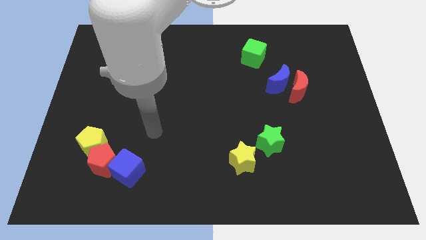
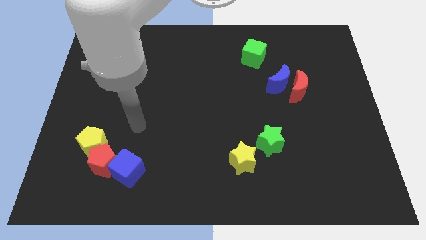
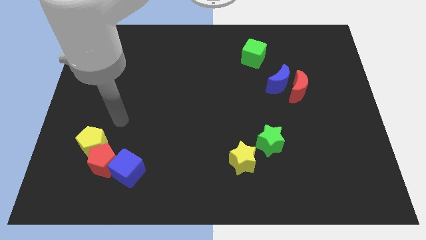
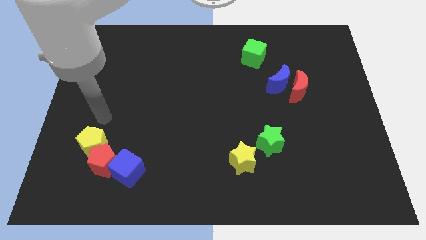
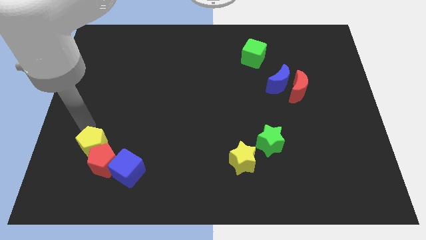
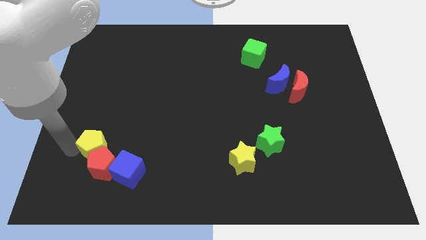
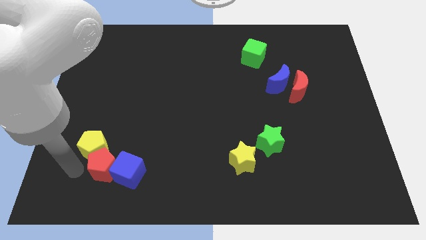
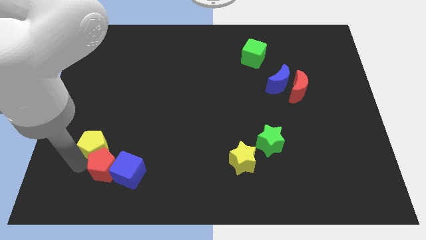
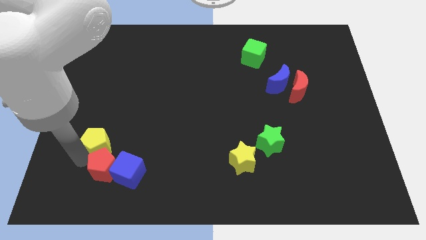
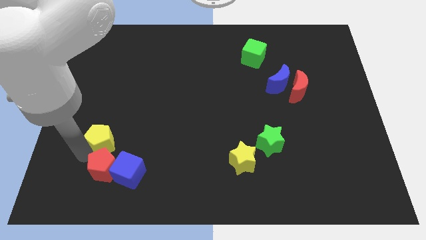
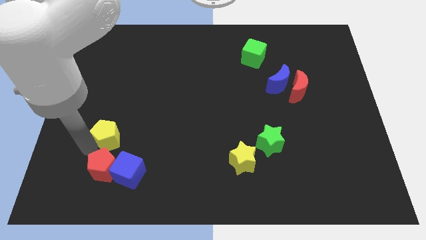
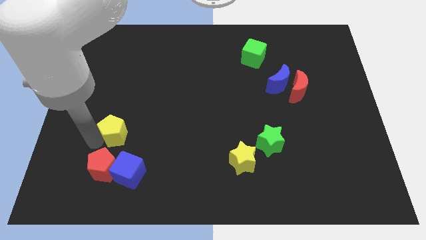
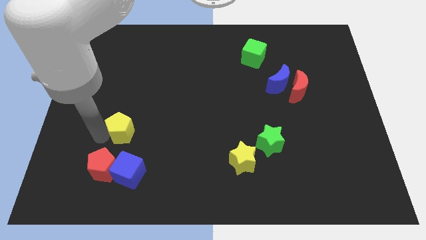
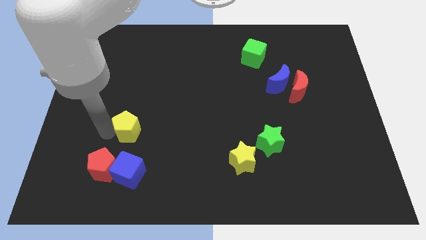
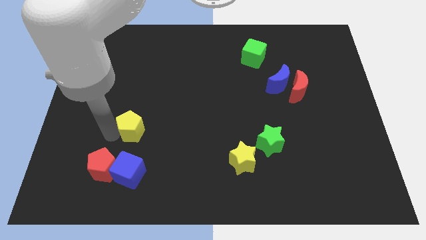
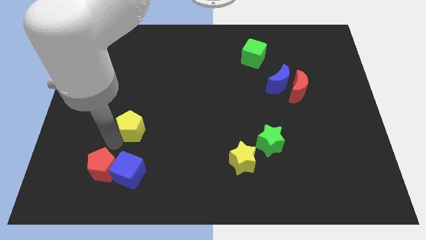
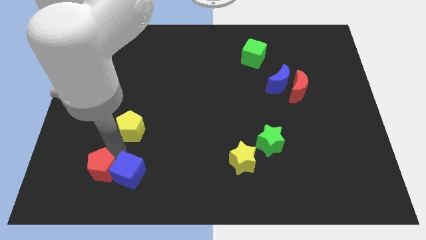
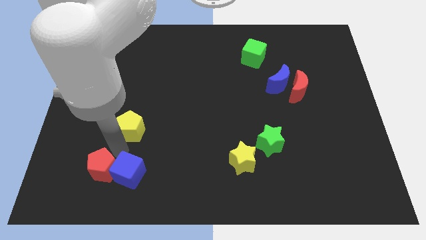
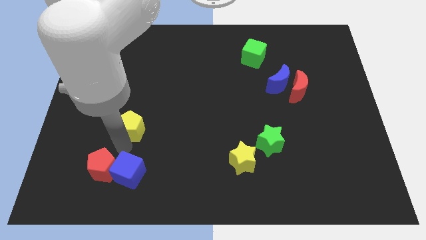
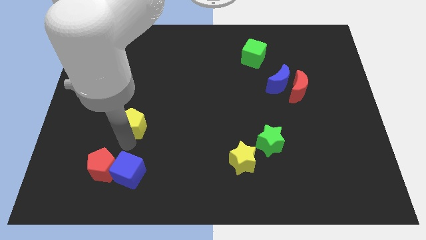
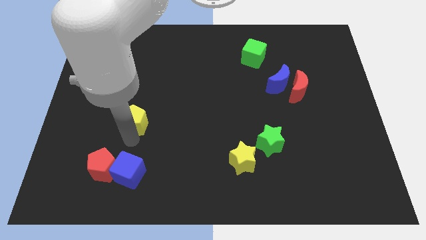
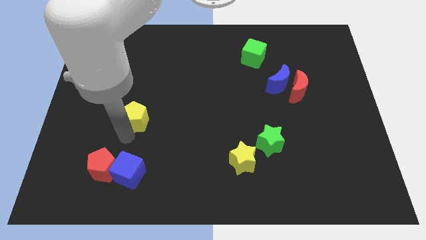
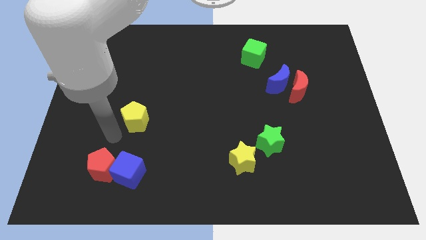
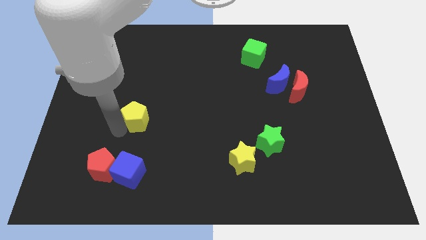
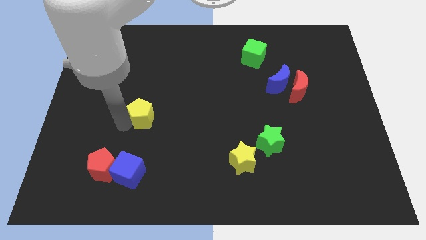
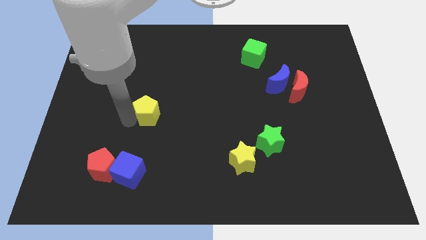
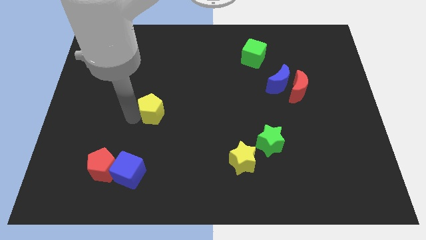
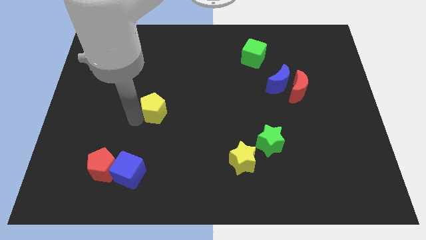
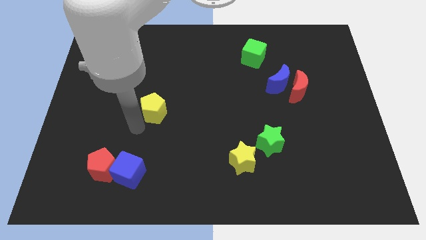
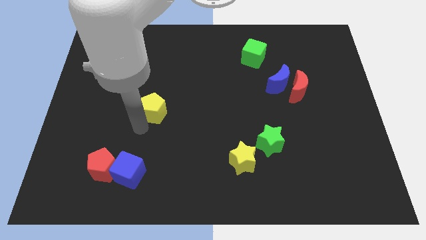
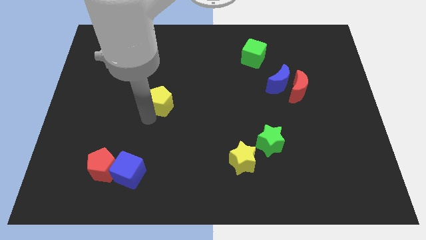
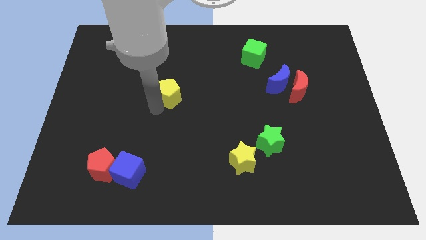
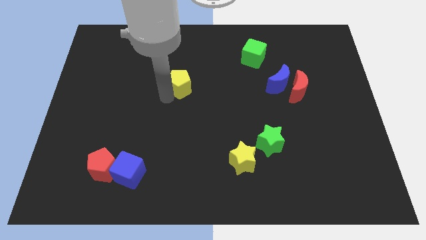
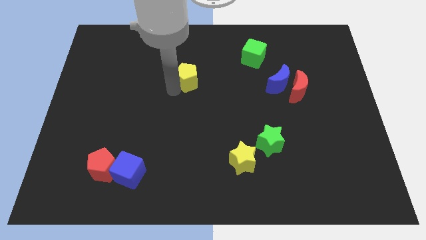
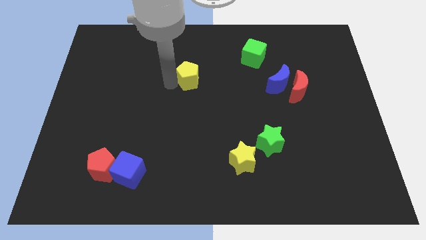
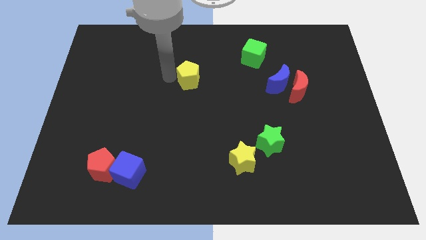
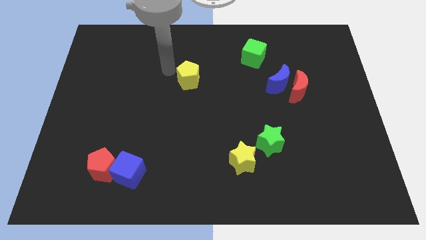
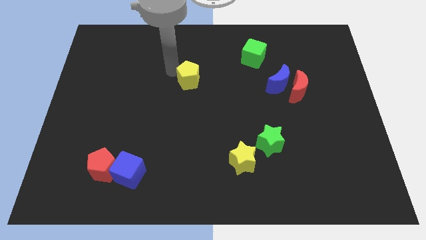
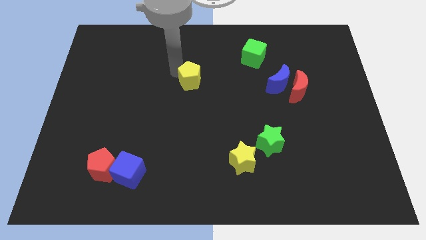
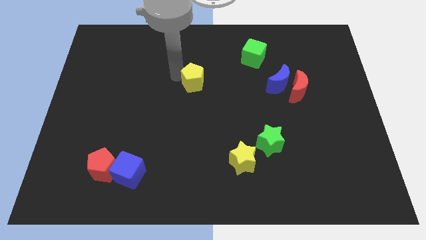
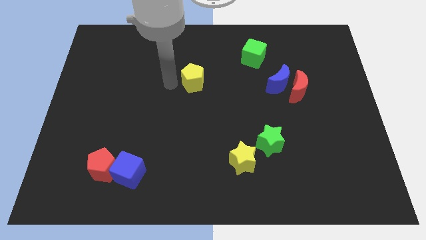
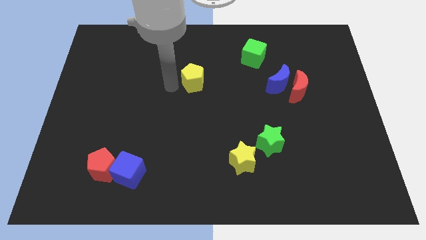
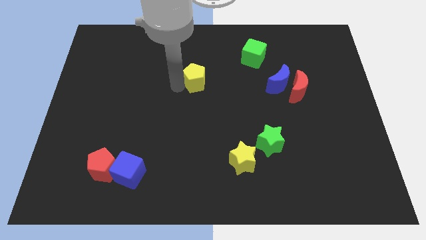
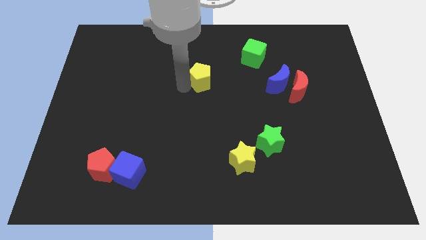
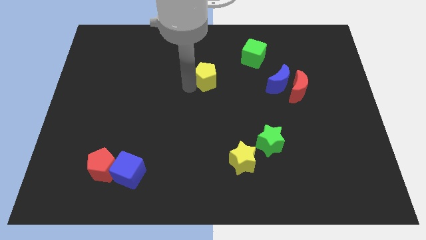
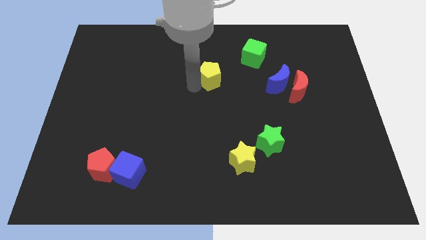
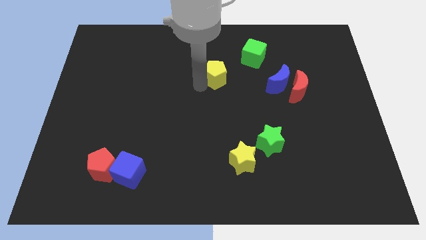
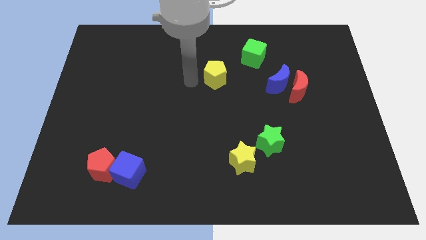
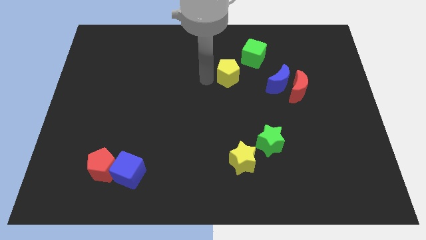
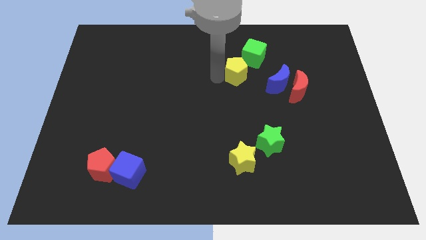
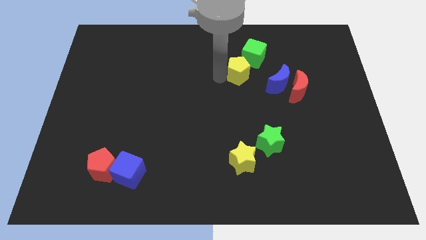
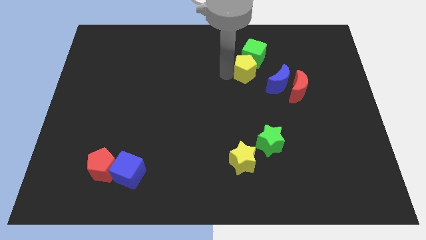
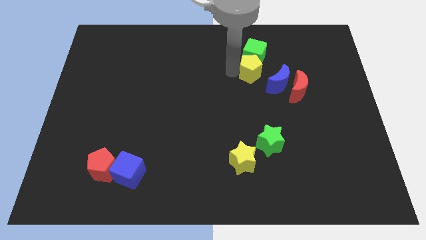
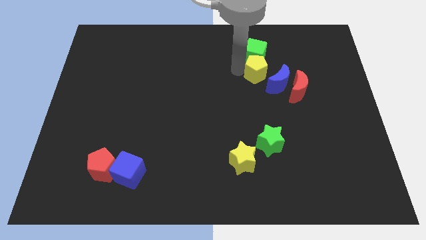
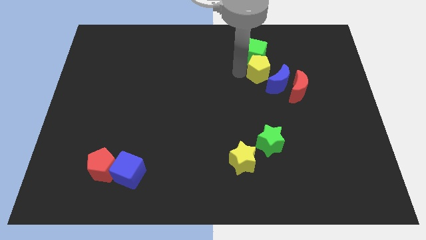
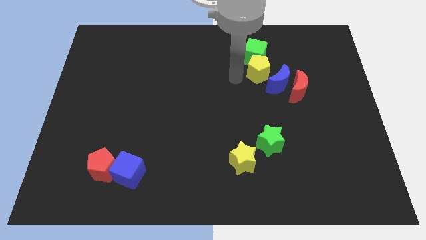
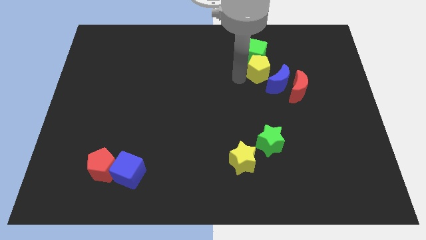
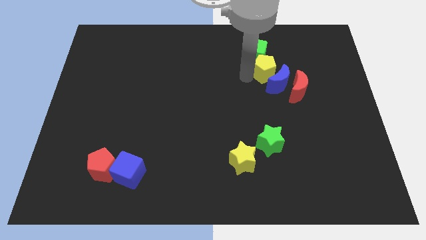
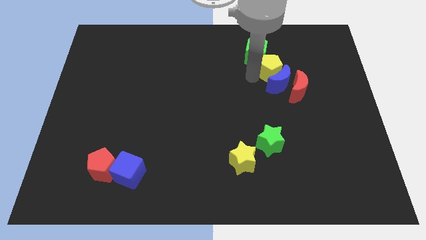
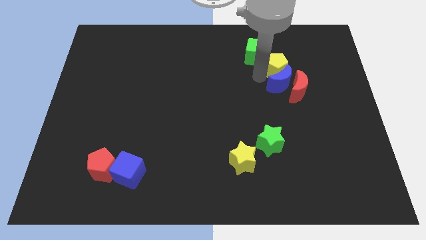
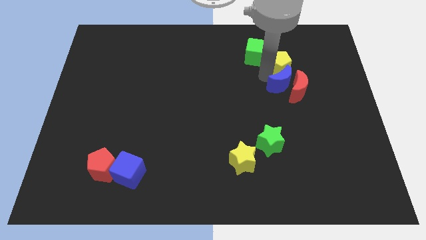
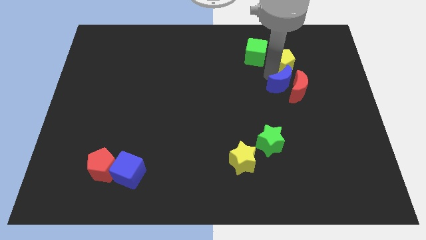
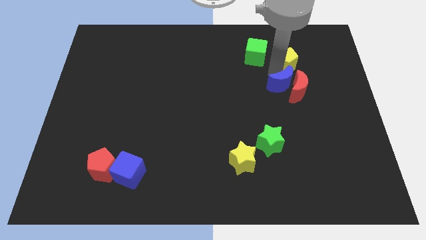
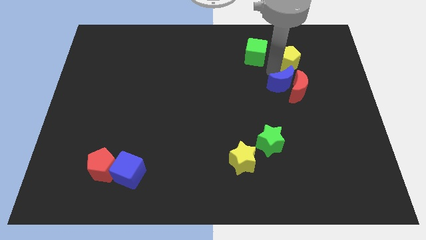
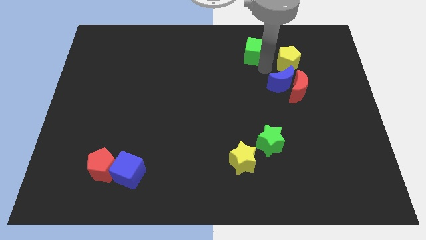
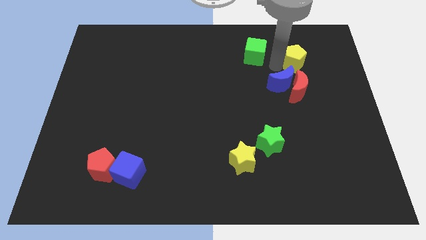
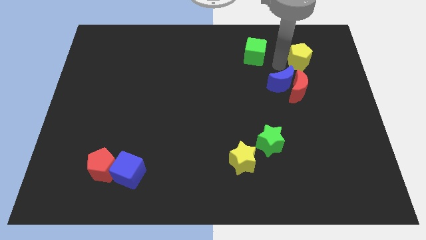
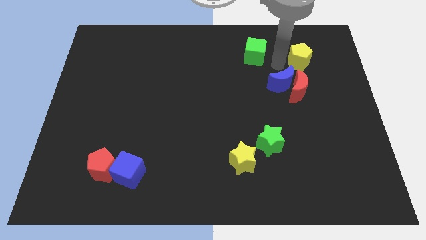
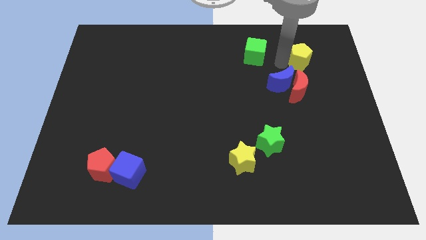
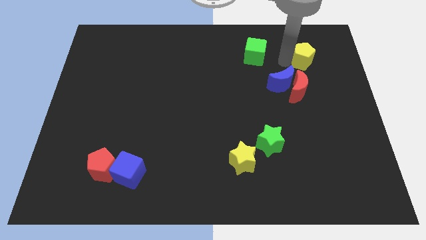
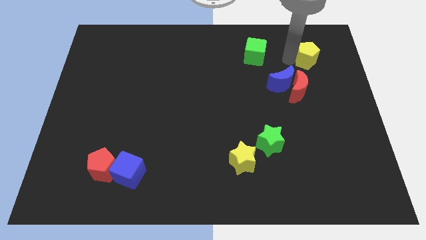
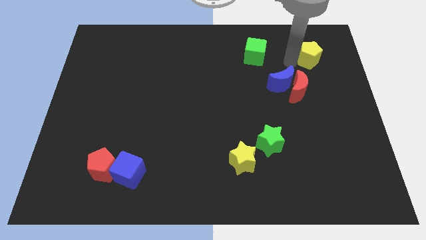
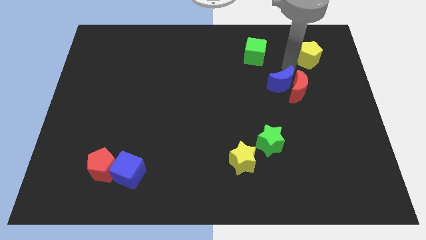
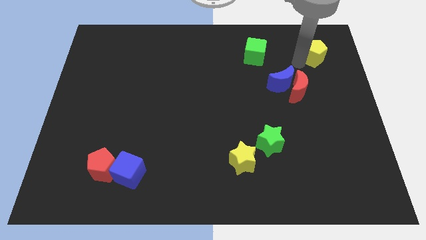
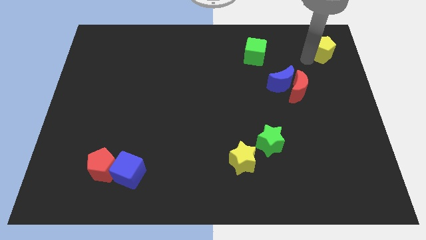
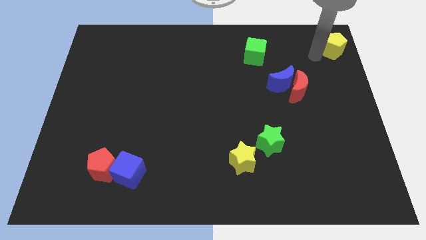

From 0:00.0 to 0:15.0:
put the yellow pentagon to the upper right corner
